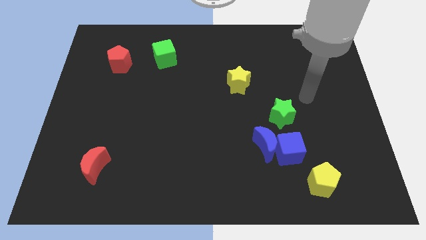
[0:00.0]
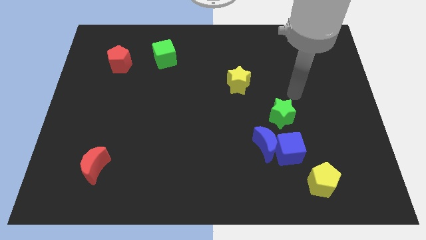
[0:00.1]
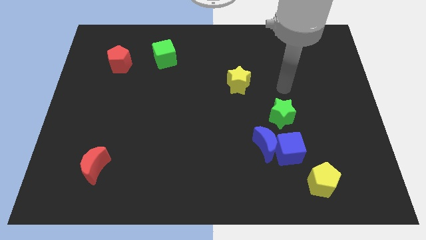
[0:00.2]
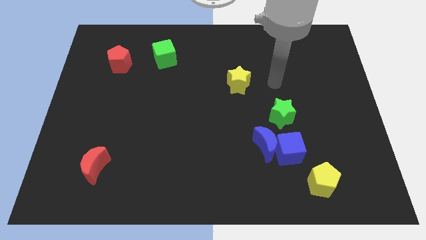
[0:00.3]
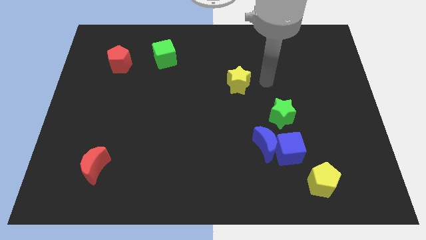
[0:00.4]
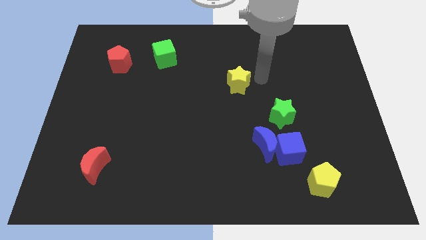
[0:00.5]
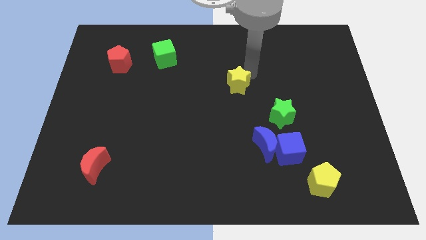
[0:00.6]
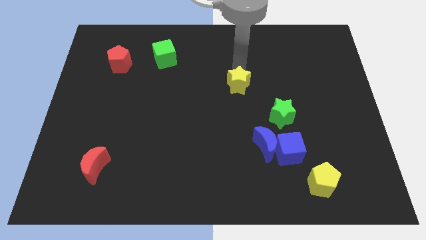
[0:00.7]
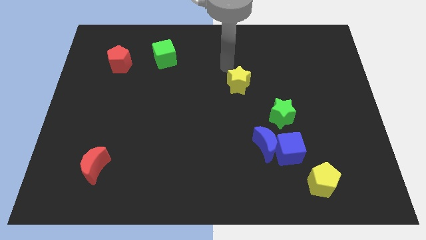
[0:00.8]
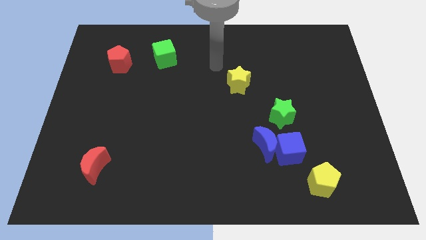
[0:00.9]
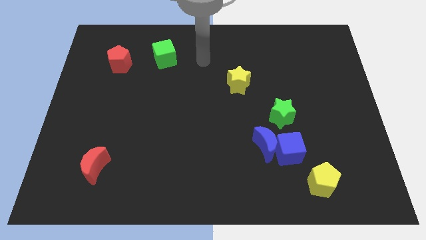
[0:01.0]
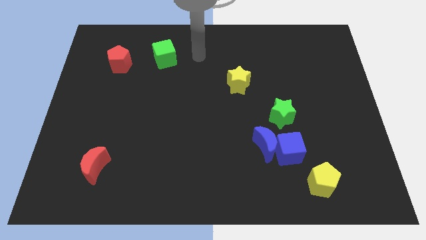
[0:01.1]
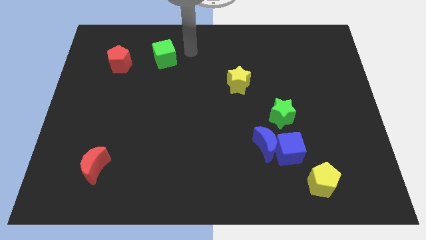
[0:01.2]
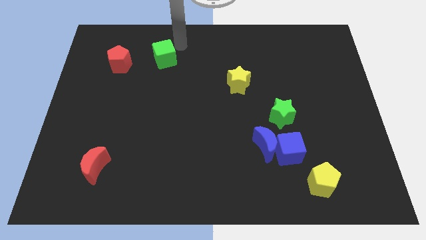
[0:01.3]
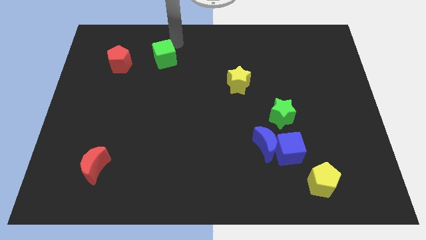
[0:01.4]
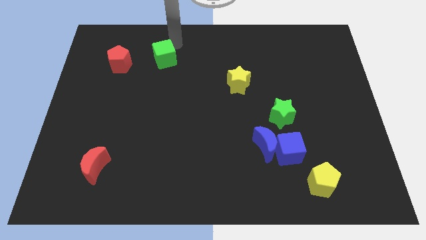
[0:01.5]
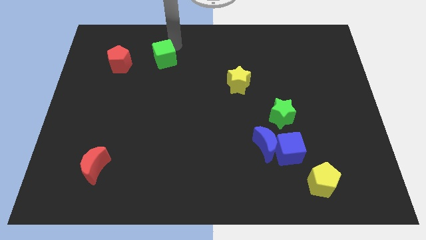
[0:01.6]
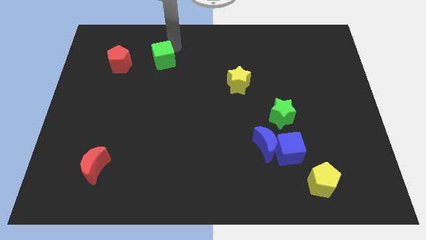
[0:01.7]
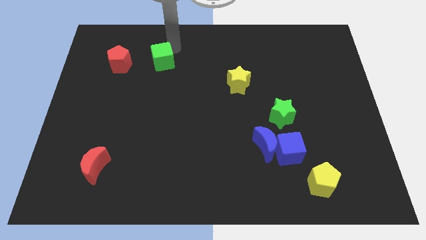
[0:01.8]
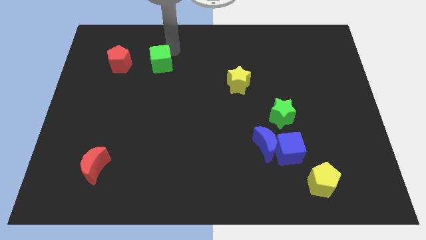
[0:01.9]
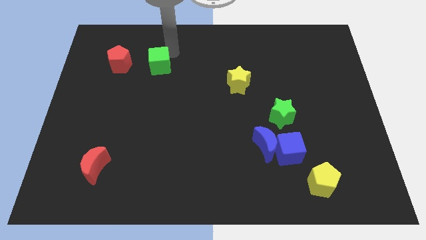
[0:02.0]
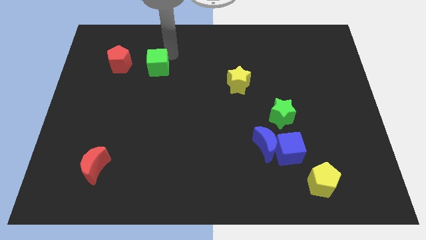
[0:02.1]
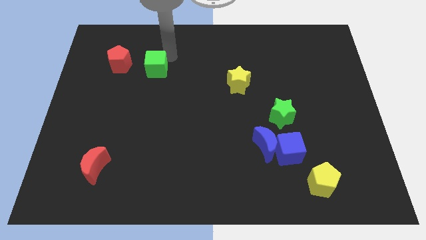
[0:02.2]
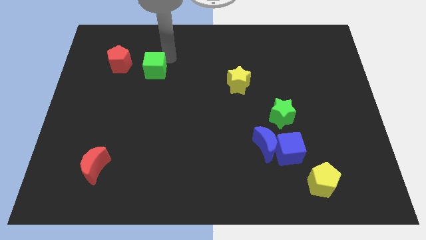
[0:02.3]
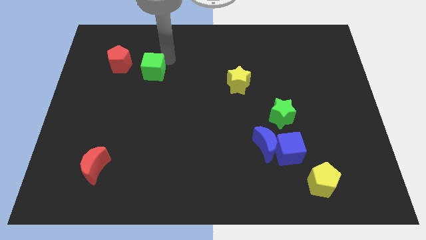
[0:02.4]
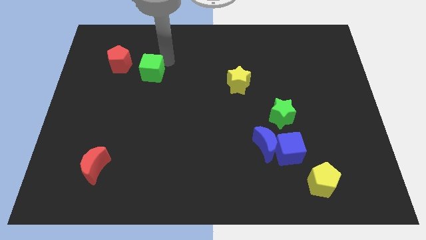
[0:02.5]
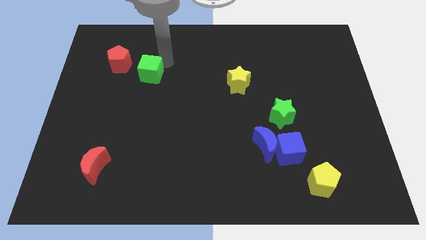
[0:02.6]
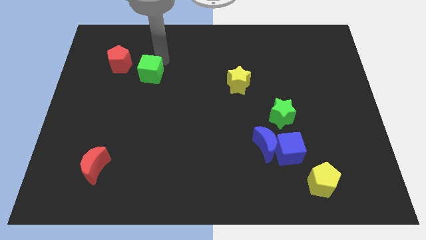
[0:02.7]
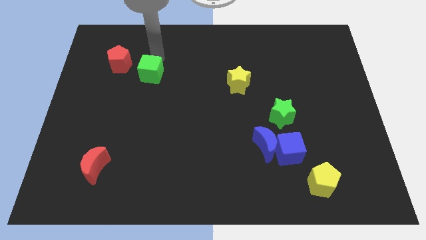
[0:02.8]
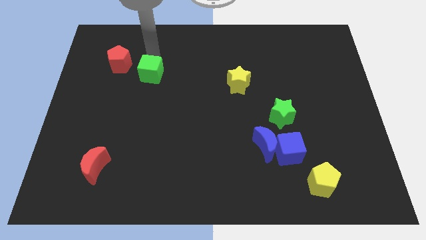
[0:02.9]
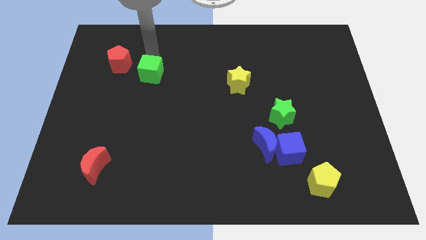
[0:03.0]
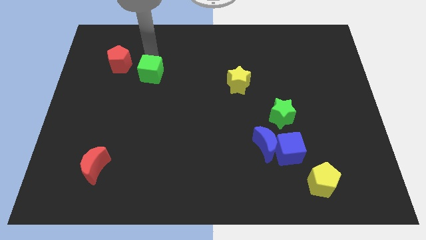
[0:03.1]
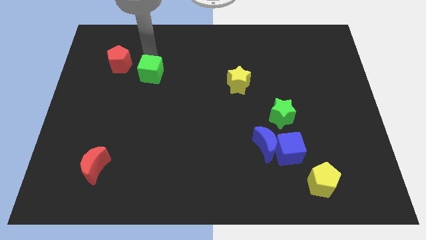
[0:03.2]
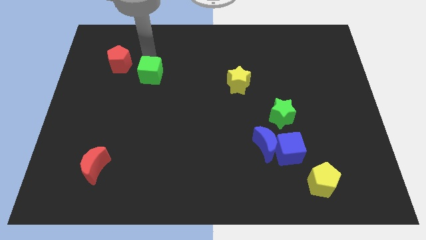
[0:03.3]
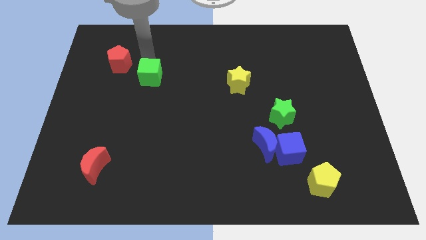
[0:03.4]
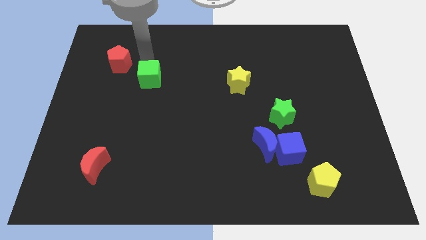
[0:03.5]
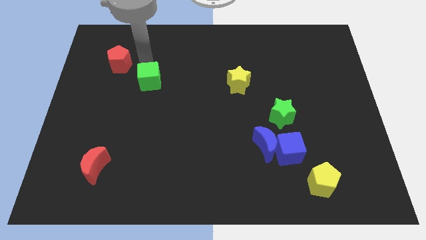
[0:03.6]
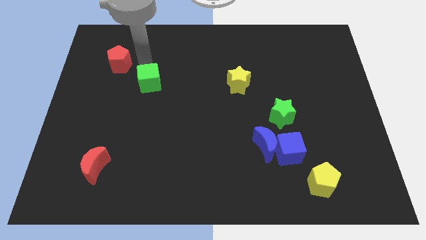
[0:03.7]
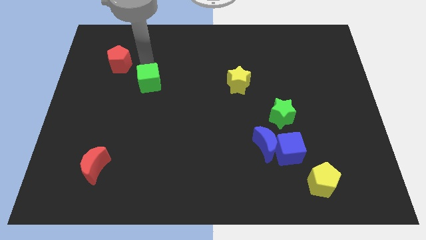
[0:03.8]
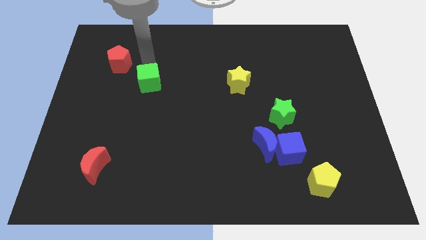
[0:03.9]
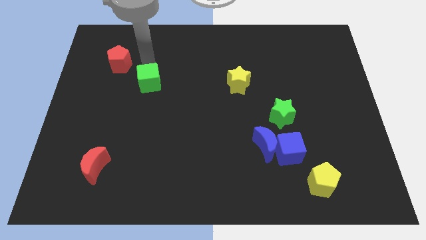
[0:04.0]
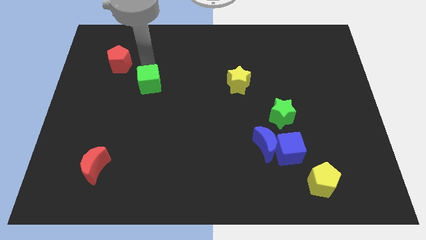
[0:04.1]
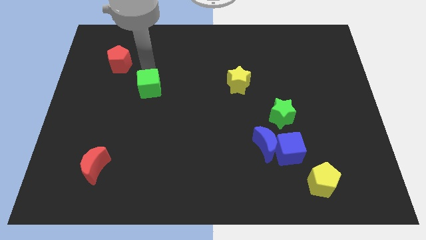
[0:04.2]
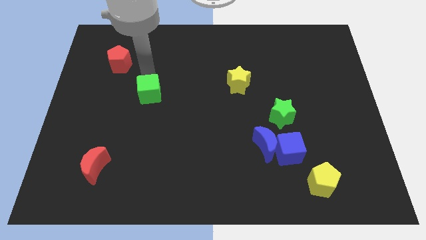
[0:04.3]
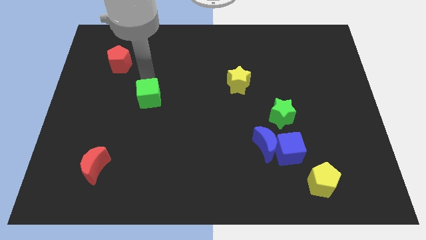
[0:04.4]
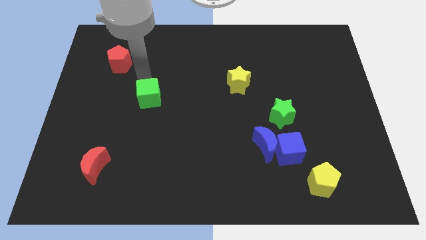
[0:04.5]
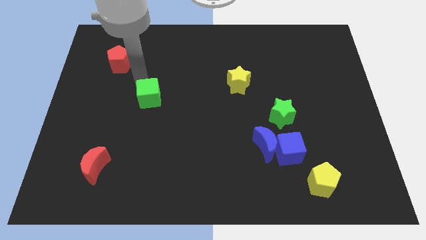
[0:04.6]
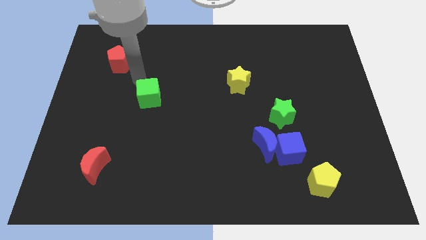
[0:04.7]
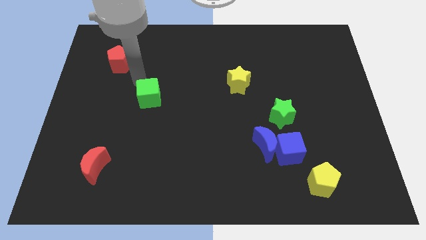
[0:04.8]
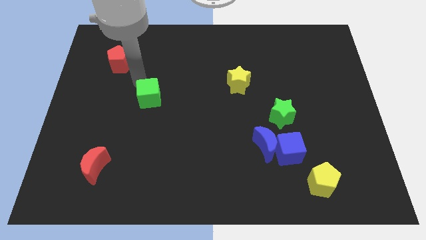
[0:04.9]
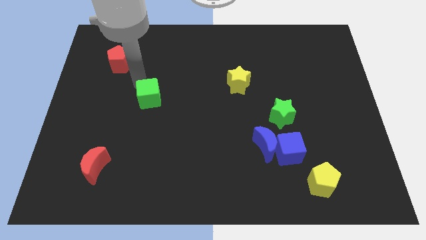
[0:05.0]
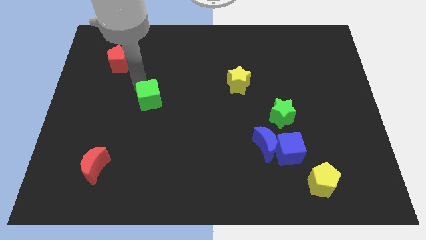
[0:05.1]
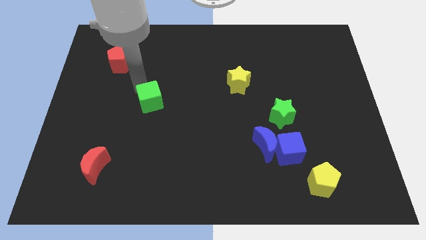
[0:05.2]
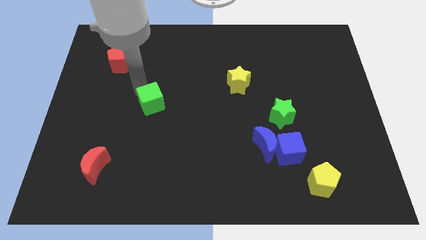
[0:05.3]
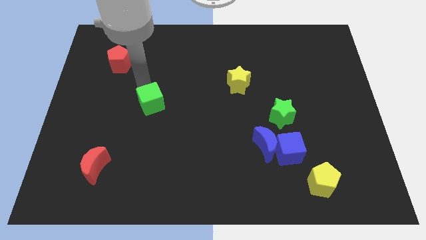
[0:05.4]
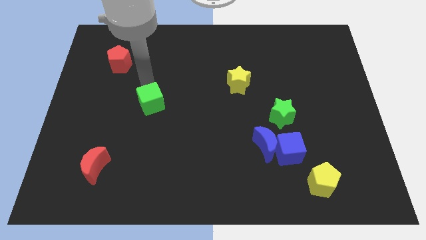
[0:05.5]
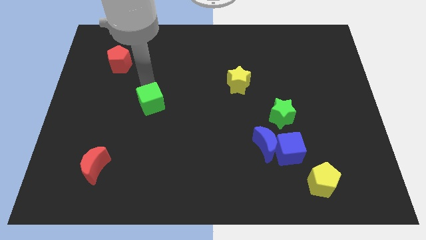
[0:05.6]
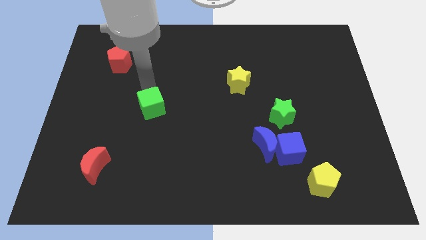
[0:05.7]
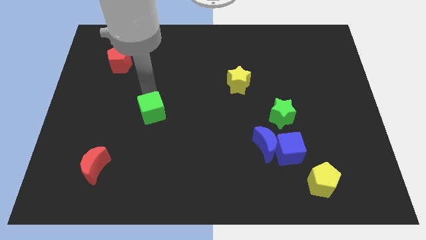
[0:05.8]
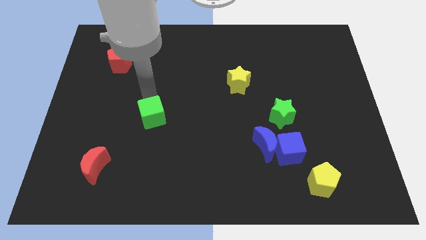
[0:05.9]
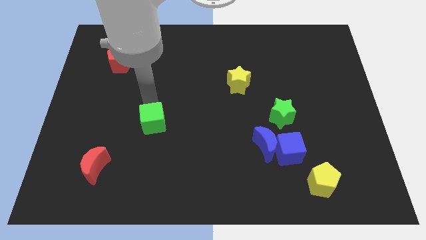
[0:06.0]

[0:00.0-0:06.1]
move the green cube downwards

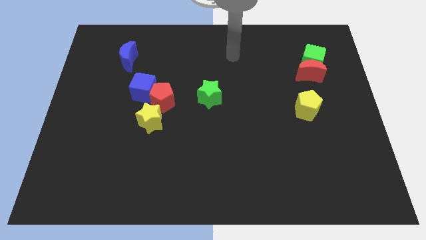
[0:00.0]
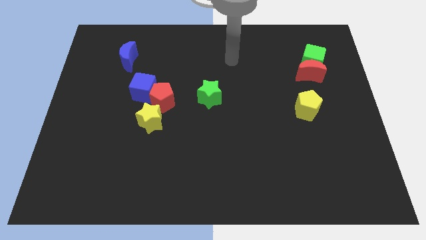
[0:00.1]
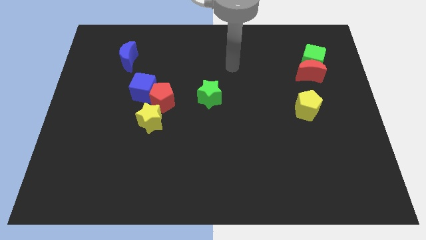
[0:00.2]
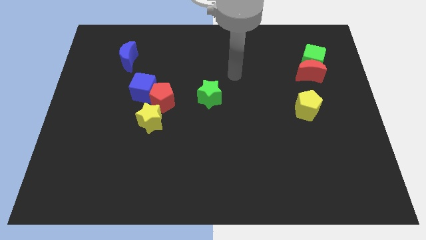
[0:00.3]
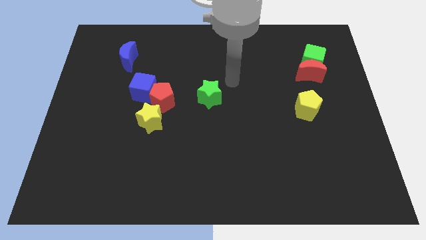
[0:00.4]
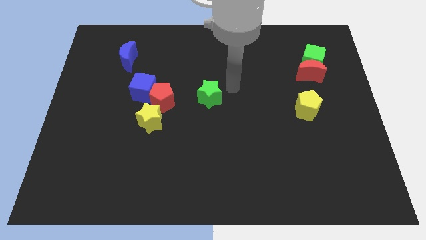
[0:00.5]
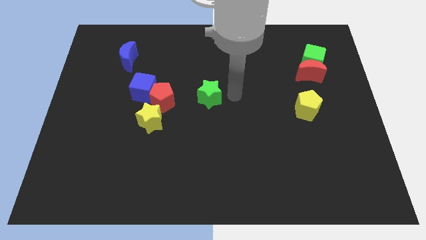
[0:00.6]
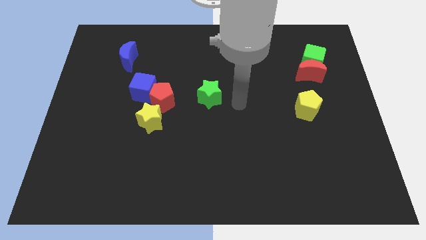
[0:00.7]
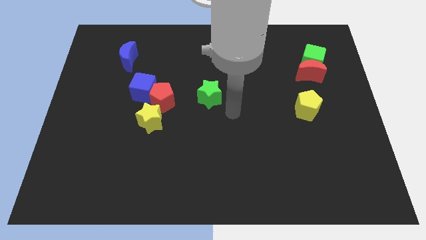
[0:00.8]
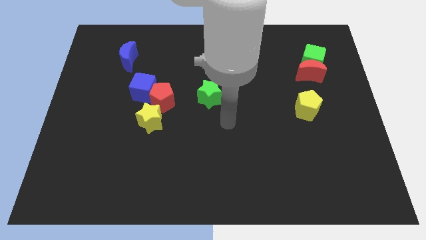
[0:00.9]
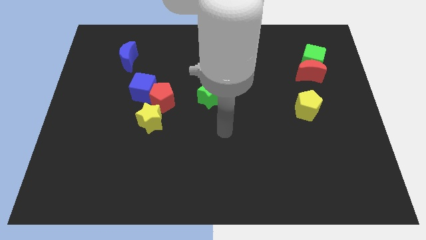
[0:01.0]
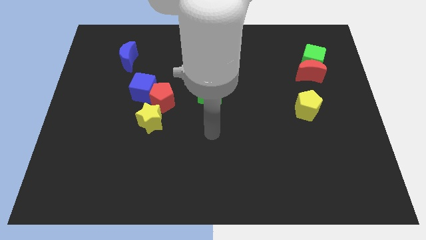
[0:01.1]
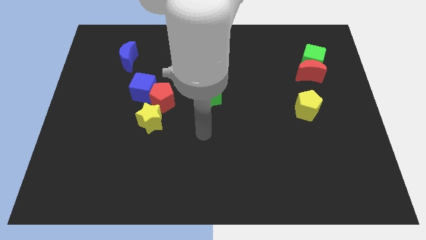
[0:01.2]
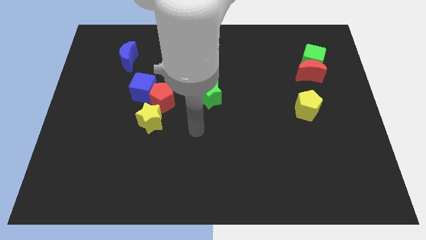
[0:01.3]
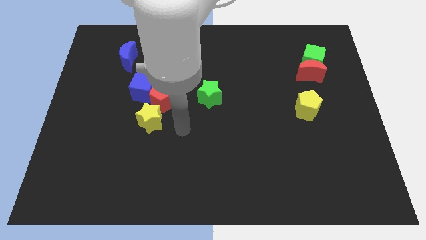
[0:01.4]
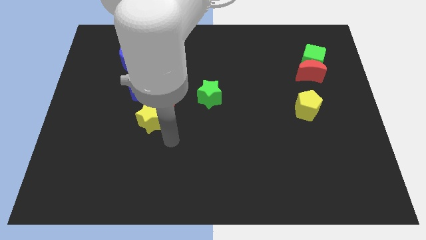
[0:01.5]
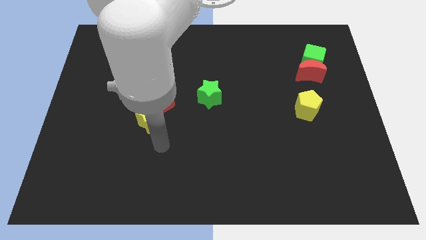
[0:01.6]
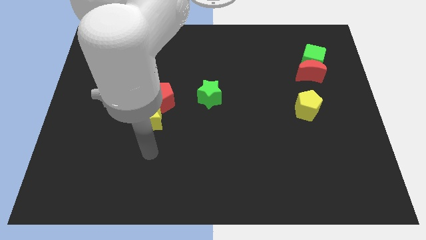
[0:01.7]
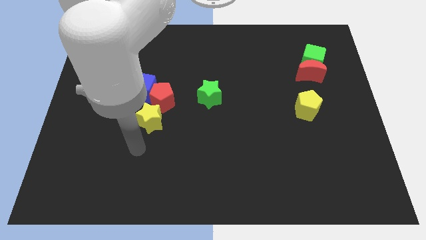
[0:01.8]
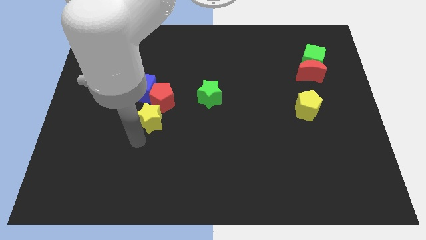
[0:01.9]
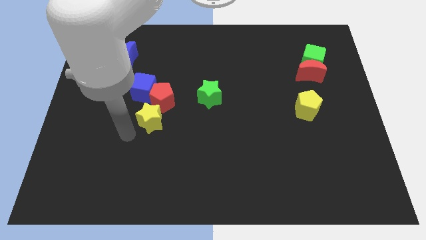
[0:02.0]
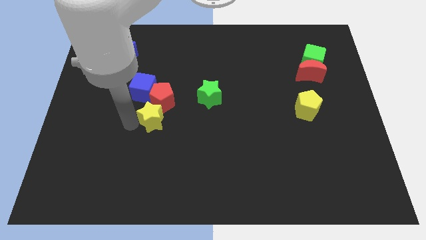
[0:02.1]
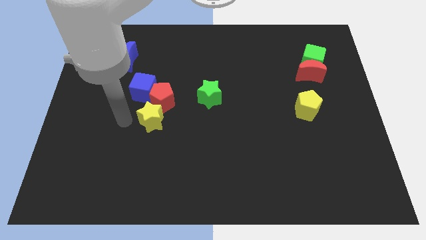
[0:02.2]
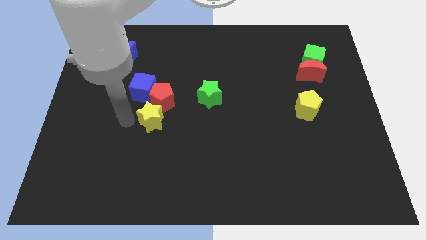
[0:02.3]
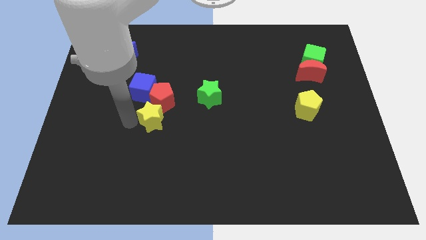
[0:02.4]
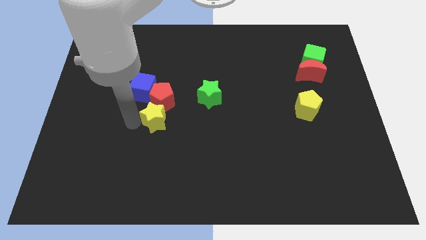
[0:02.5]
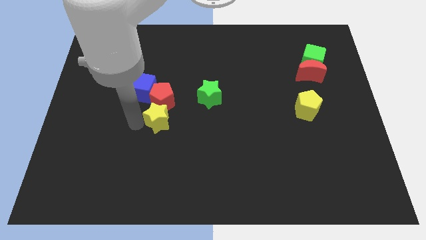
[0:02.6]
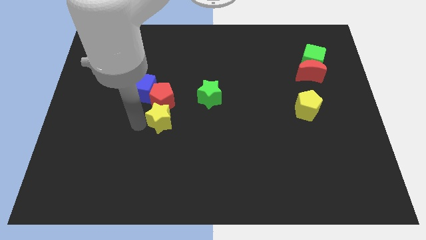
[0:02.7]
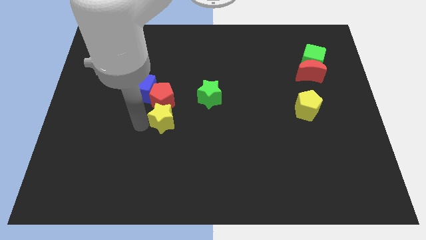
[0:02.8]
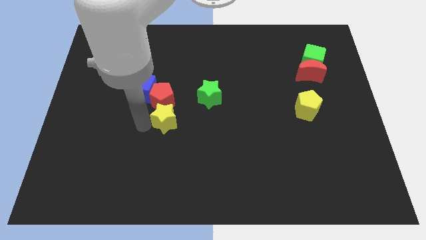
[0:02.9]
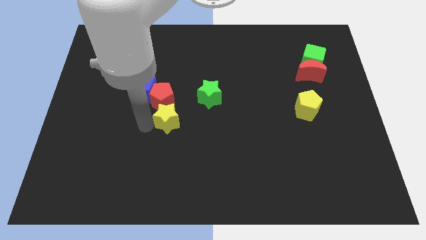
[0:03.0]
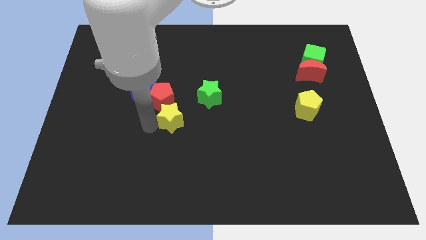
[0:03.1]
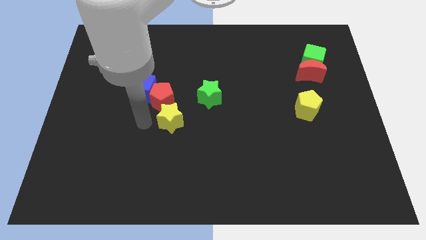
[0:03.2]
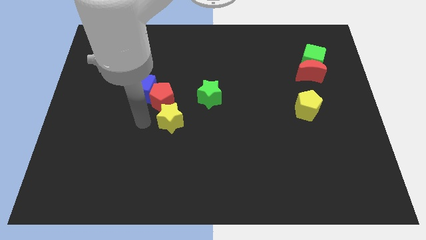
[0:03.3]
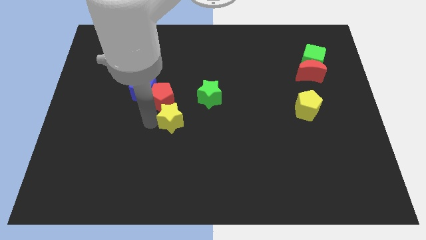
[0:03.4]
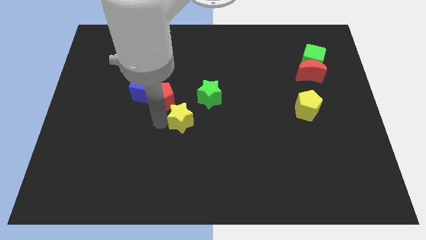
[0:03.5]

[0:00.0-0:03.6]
slightly slide the yellow star right
